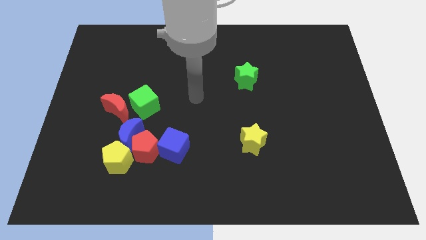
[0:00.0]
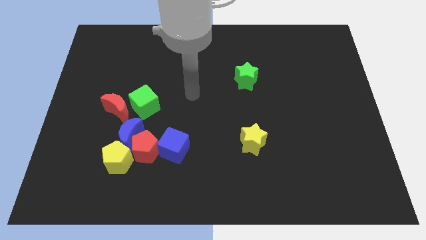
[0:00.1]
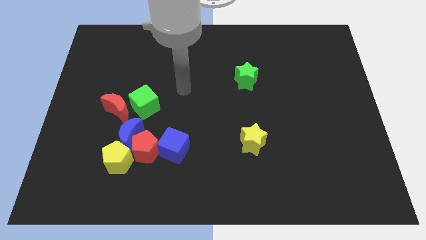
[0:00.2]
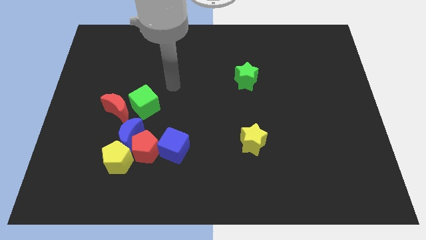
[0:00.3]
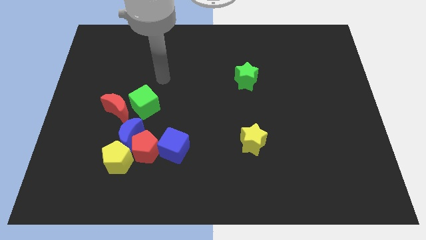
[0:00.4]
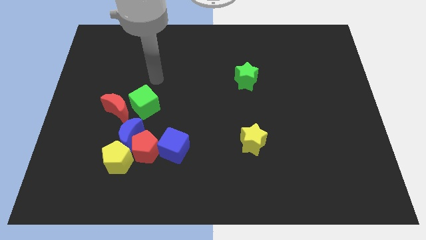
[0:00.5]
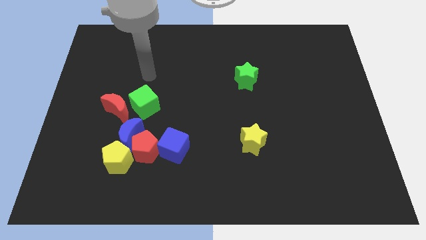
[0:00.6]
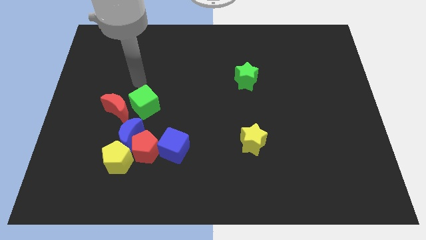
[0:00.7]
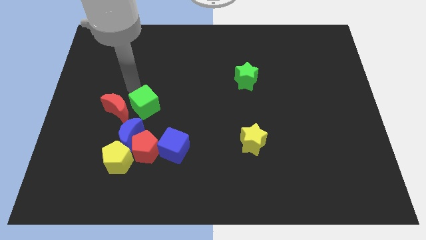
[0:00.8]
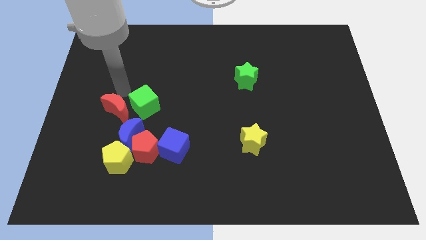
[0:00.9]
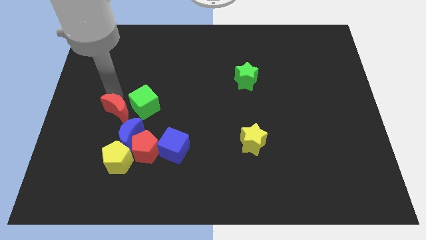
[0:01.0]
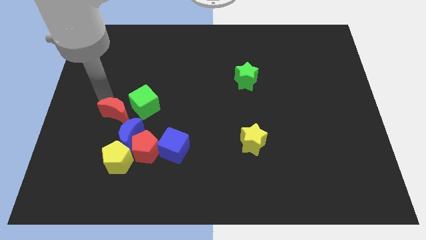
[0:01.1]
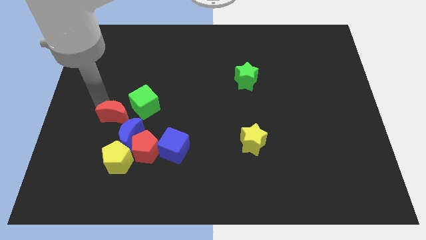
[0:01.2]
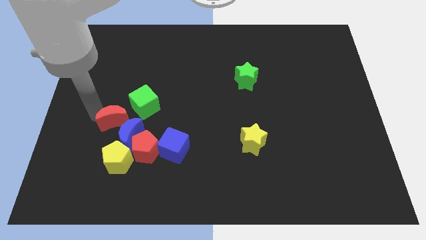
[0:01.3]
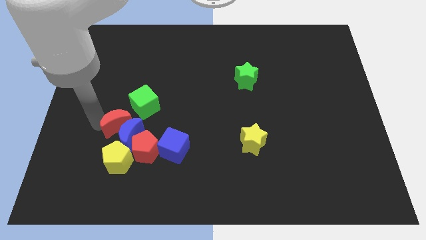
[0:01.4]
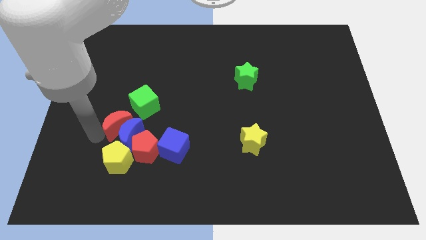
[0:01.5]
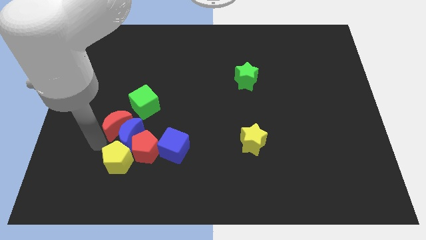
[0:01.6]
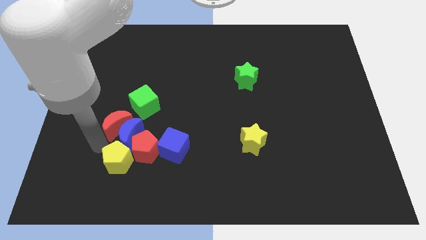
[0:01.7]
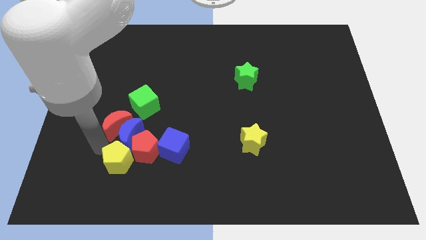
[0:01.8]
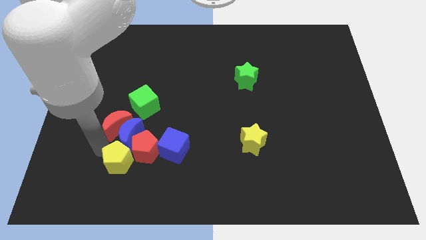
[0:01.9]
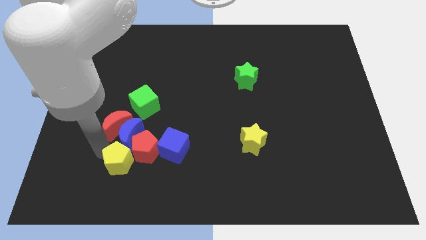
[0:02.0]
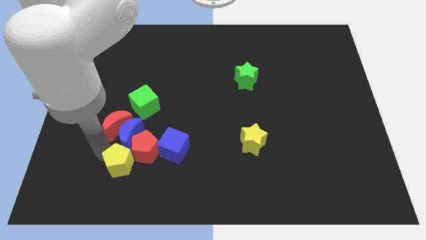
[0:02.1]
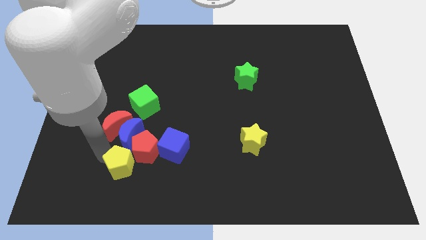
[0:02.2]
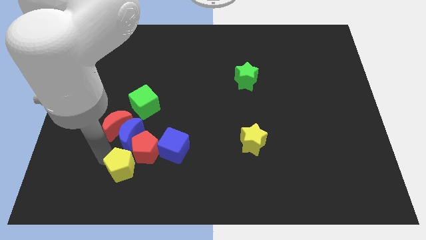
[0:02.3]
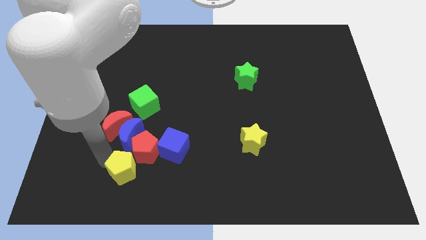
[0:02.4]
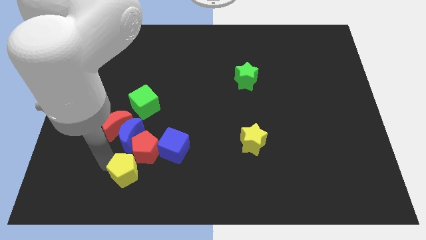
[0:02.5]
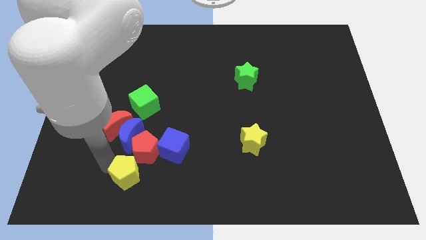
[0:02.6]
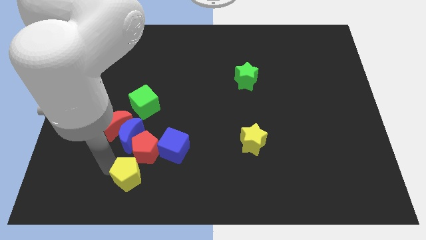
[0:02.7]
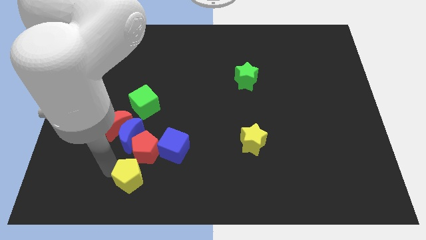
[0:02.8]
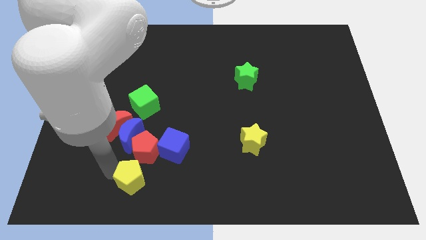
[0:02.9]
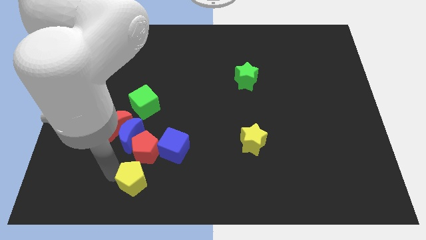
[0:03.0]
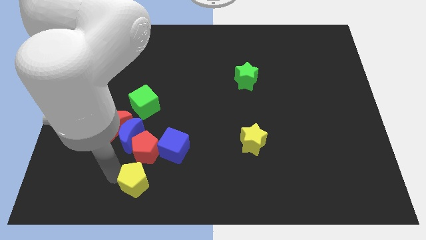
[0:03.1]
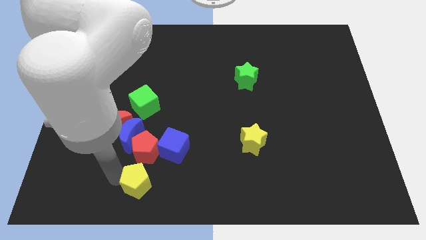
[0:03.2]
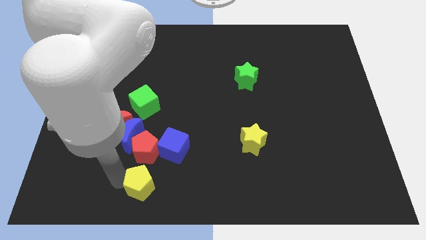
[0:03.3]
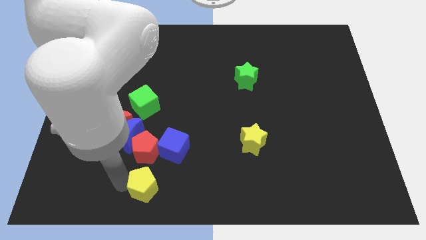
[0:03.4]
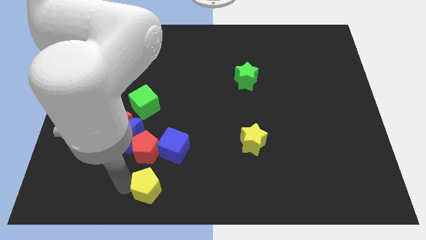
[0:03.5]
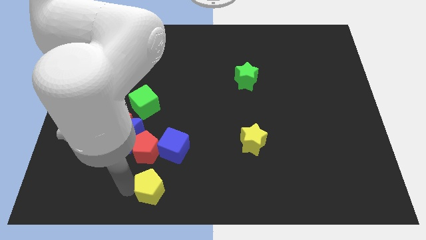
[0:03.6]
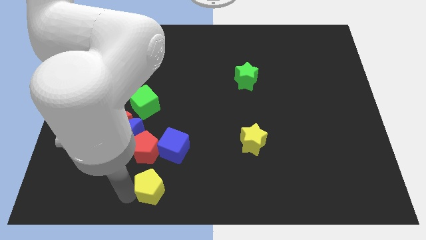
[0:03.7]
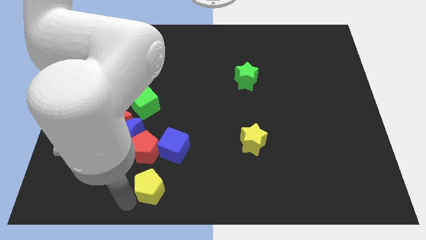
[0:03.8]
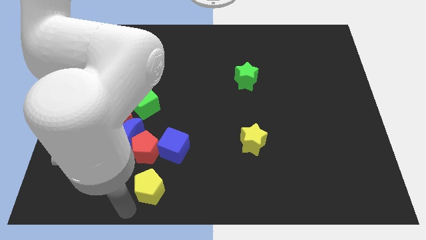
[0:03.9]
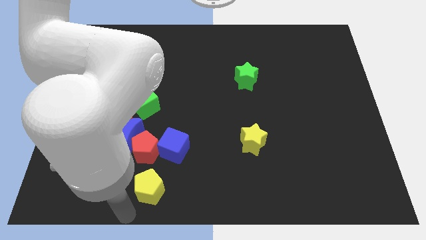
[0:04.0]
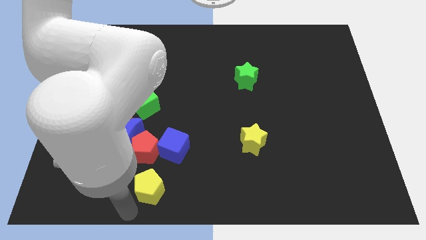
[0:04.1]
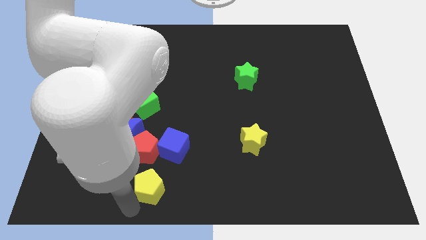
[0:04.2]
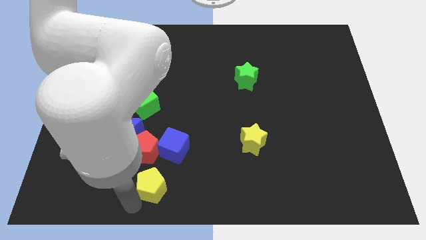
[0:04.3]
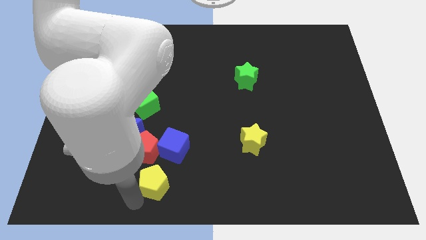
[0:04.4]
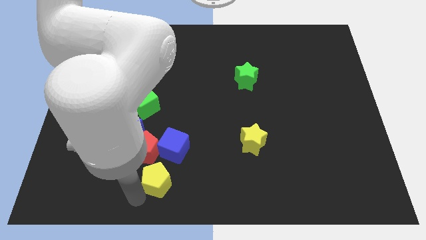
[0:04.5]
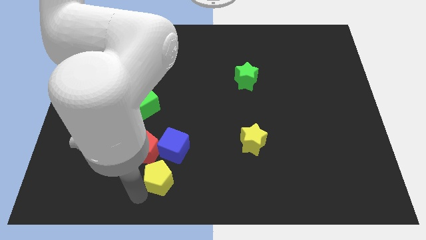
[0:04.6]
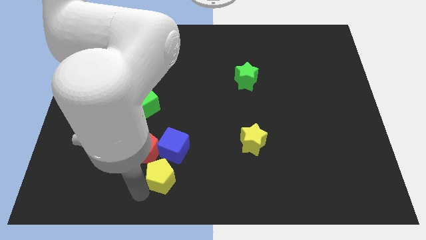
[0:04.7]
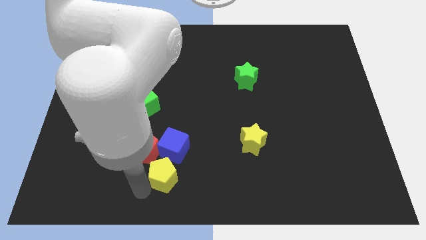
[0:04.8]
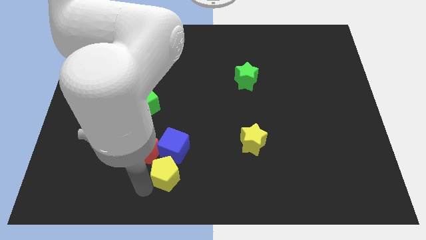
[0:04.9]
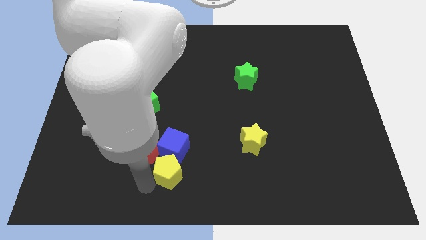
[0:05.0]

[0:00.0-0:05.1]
slide the yellow pentagon close to the blue cube

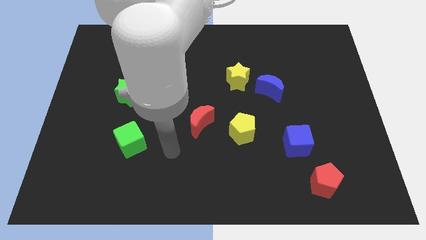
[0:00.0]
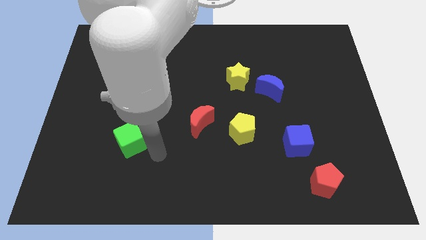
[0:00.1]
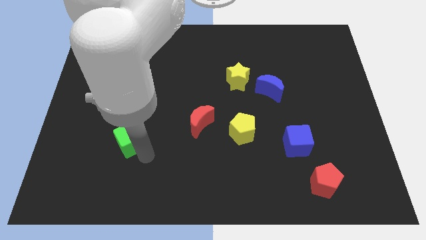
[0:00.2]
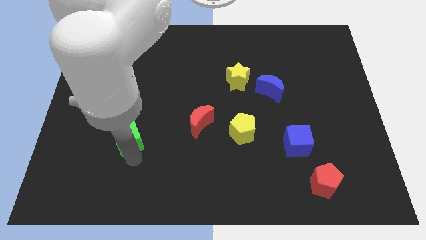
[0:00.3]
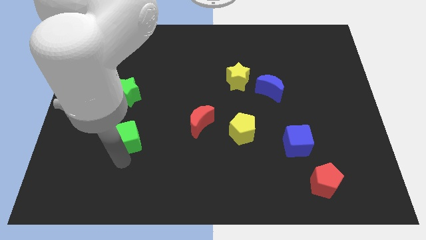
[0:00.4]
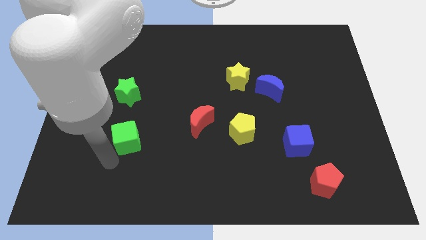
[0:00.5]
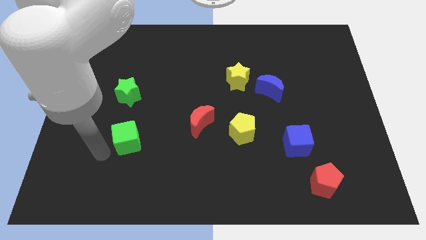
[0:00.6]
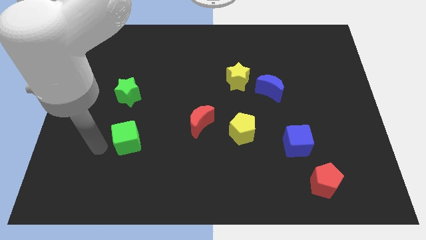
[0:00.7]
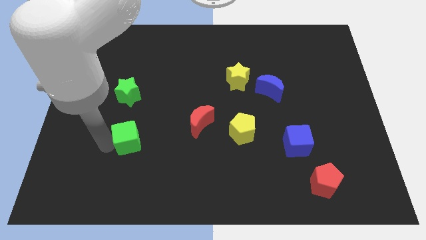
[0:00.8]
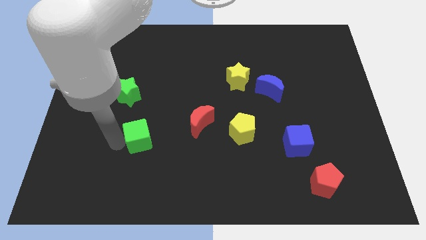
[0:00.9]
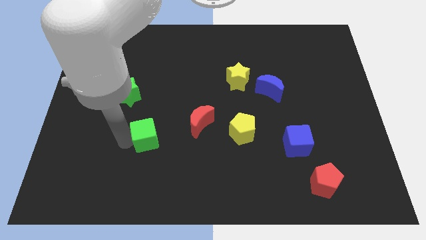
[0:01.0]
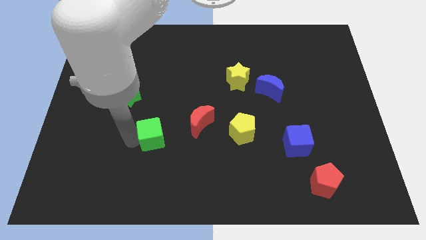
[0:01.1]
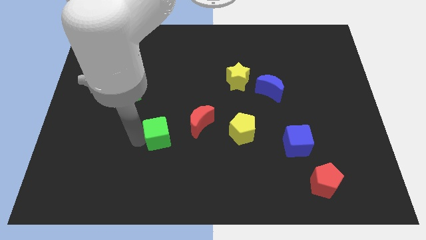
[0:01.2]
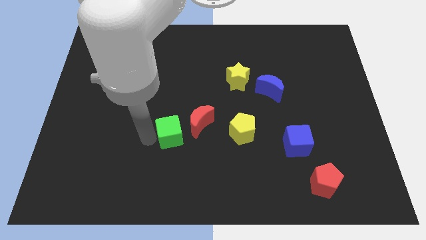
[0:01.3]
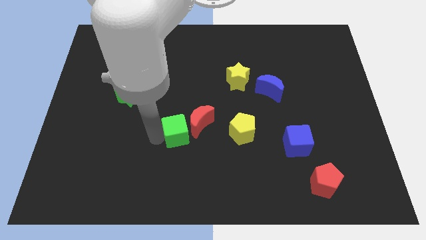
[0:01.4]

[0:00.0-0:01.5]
push the green cube close to the red moon

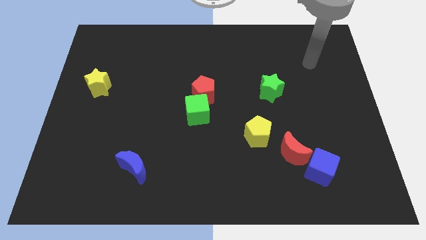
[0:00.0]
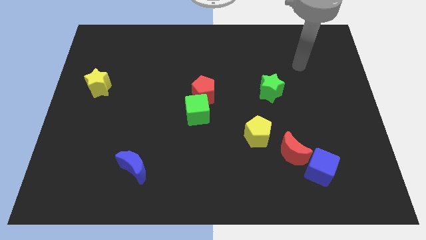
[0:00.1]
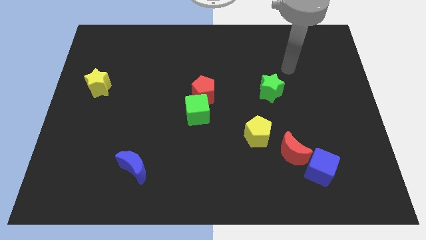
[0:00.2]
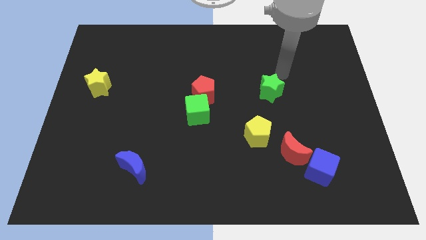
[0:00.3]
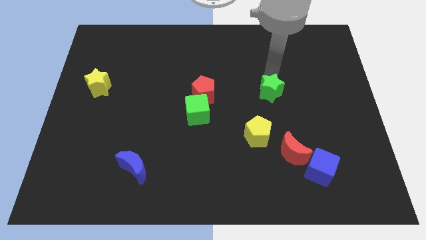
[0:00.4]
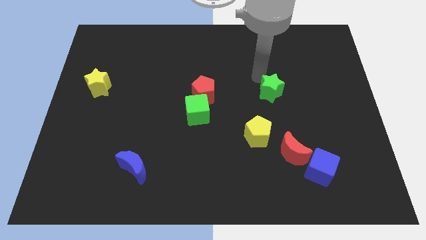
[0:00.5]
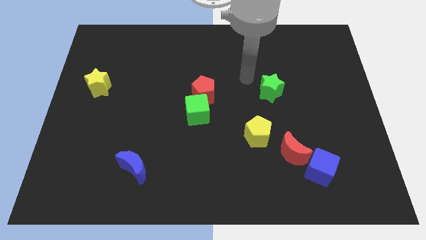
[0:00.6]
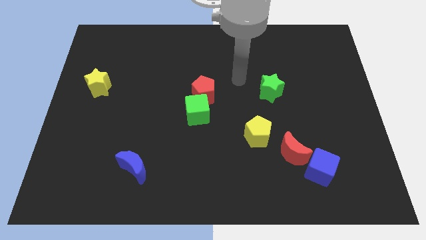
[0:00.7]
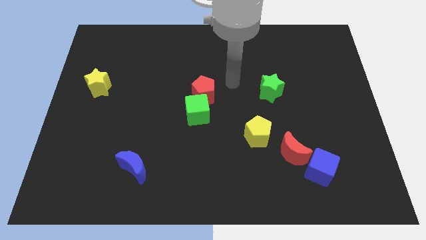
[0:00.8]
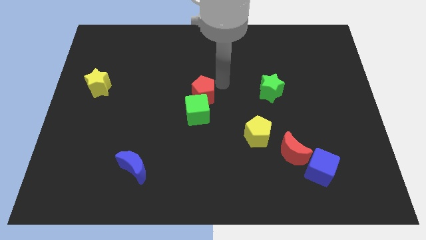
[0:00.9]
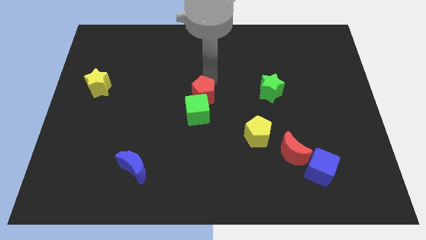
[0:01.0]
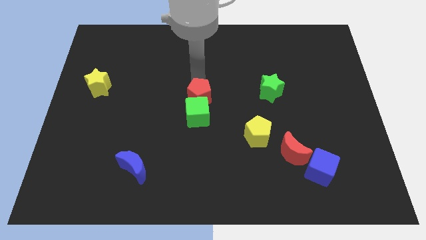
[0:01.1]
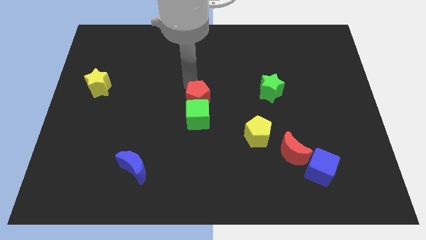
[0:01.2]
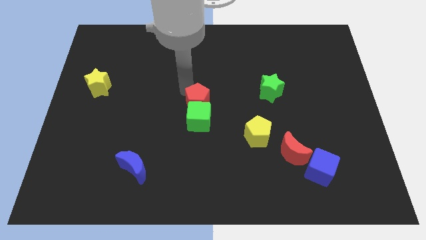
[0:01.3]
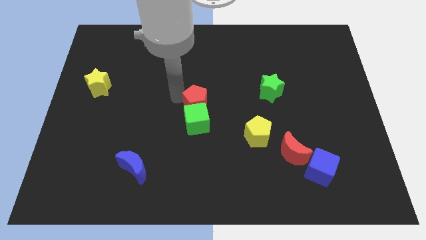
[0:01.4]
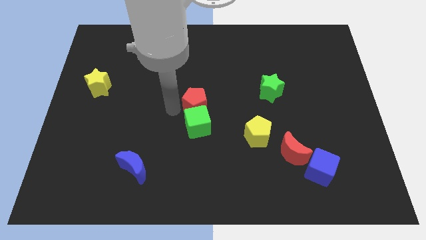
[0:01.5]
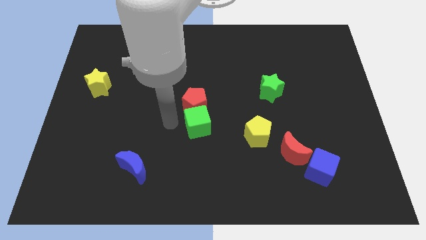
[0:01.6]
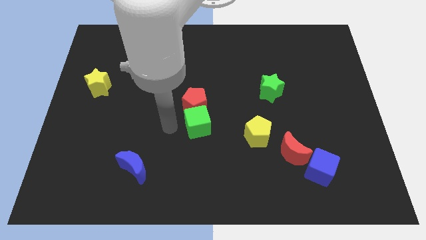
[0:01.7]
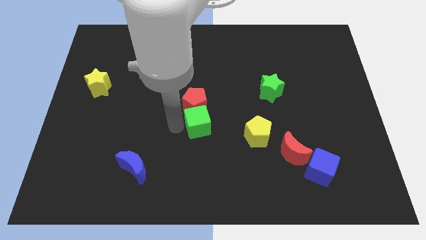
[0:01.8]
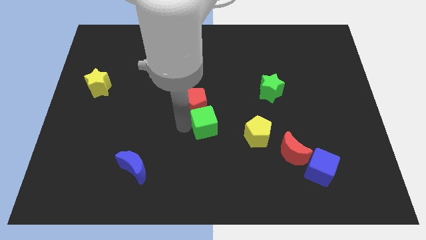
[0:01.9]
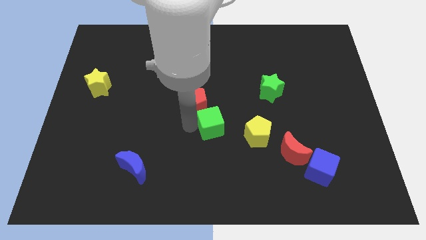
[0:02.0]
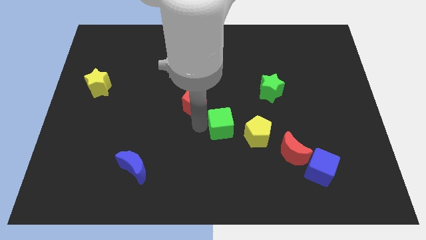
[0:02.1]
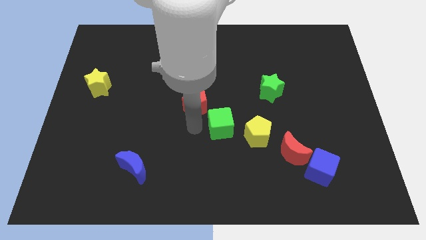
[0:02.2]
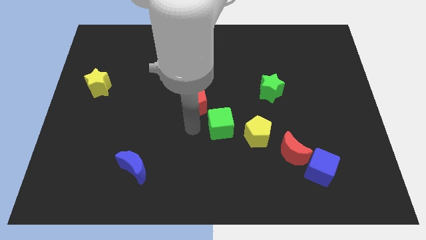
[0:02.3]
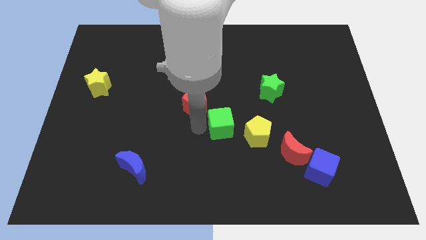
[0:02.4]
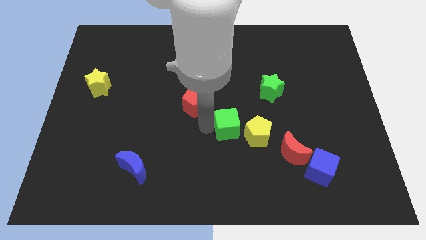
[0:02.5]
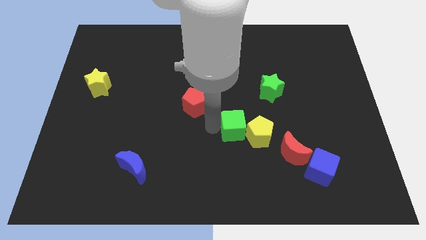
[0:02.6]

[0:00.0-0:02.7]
slide the green cube next to the yellow pentagon
